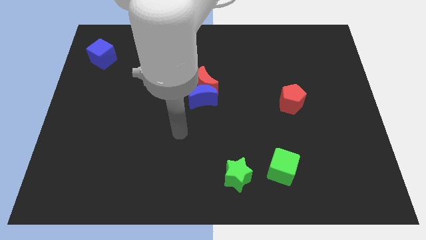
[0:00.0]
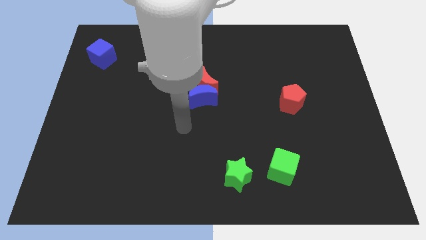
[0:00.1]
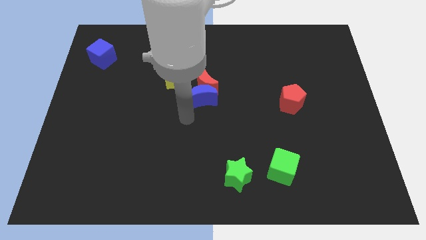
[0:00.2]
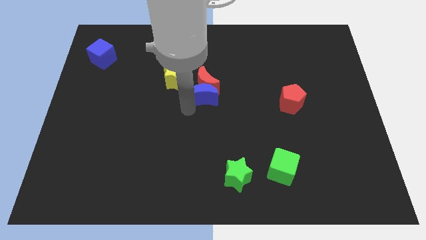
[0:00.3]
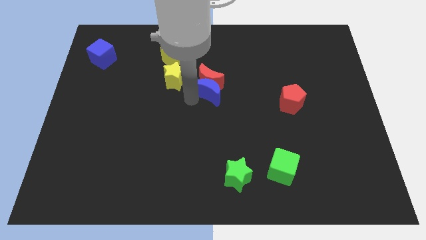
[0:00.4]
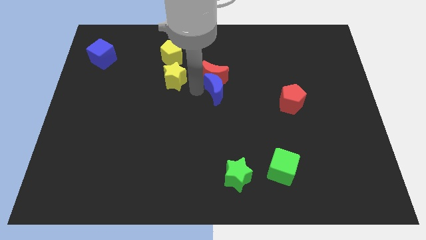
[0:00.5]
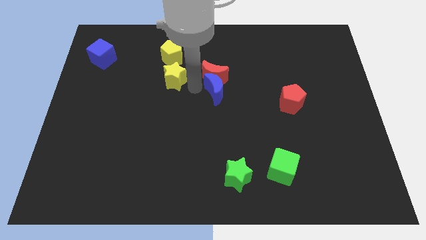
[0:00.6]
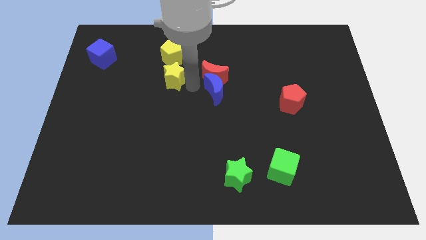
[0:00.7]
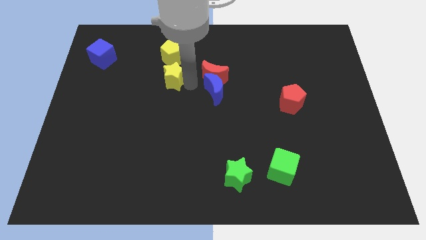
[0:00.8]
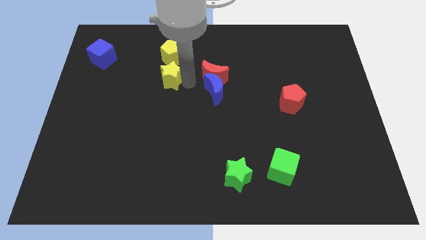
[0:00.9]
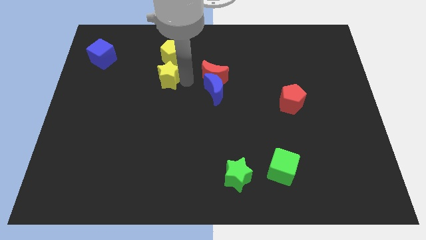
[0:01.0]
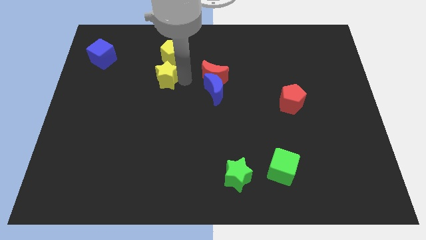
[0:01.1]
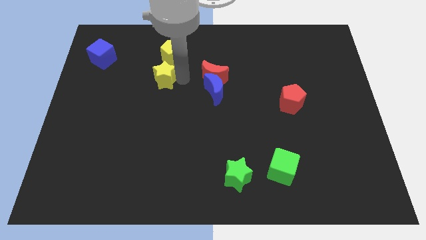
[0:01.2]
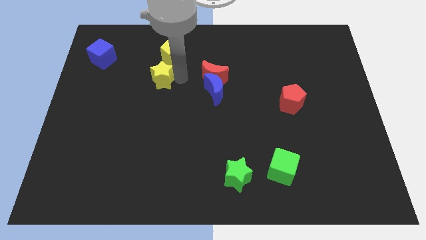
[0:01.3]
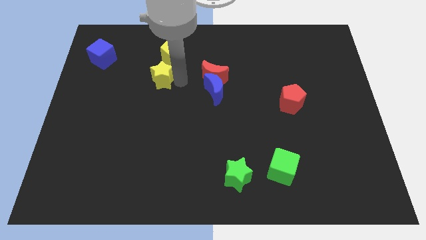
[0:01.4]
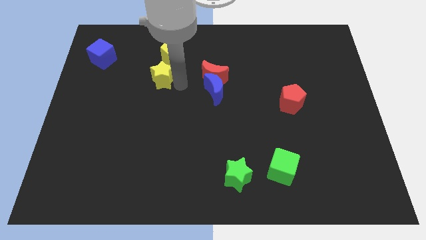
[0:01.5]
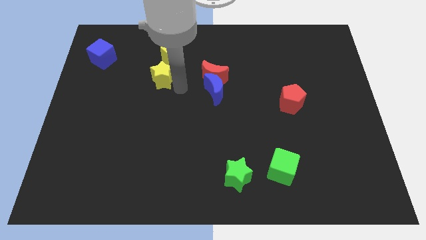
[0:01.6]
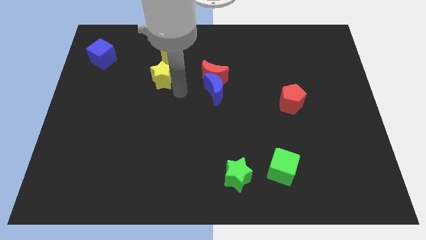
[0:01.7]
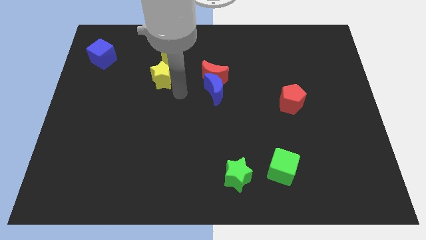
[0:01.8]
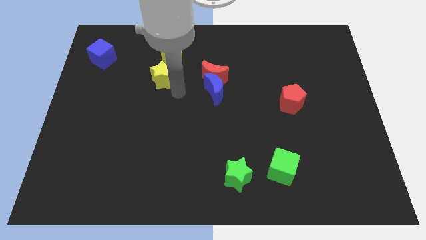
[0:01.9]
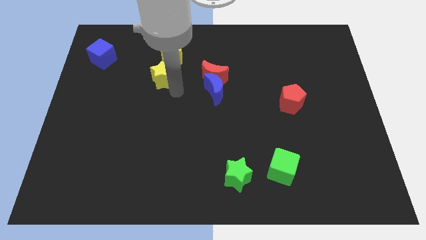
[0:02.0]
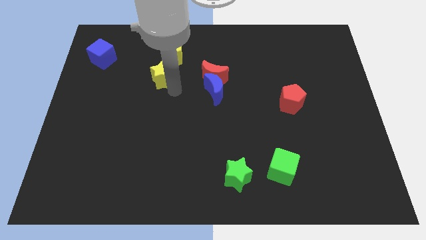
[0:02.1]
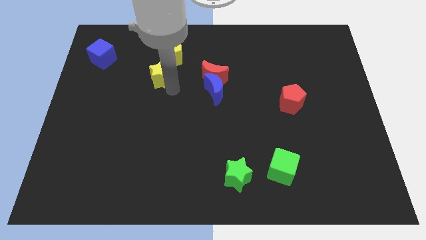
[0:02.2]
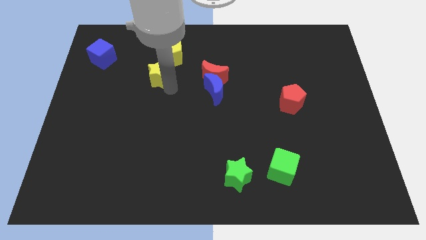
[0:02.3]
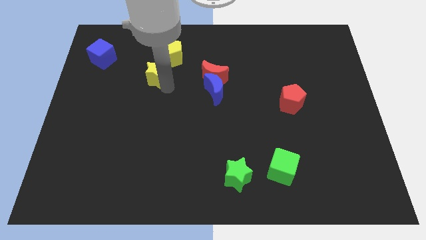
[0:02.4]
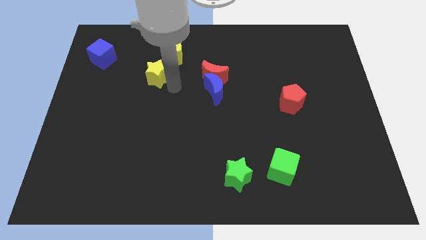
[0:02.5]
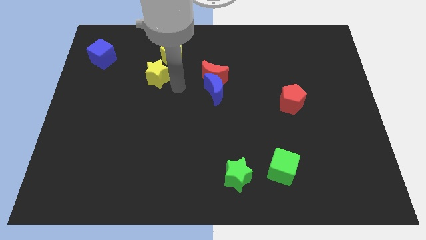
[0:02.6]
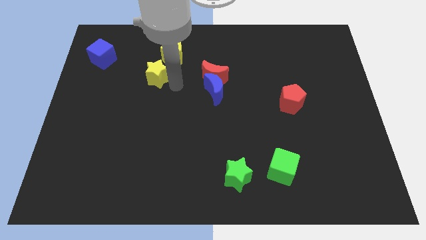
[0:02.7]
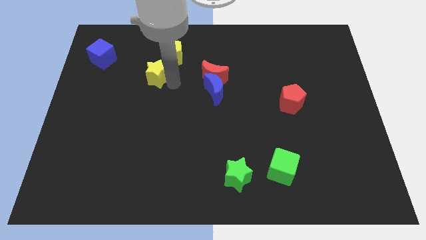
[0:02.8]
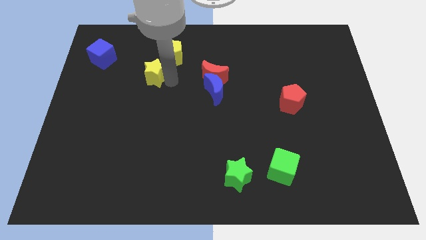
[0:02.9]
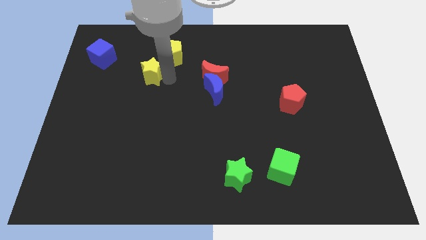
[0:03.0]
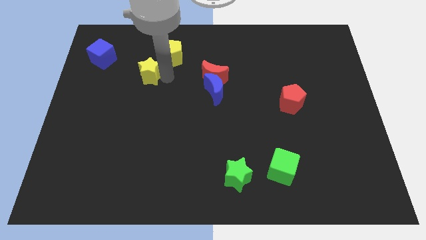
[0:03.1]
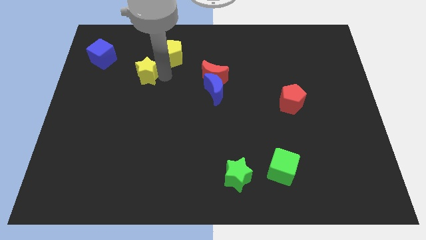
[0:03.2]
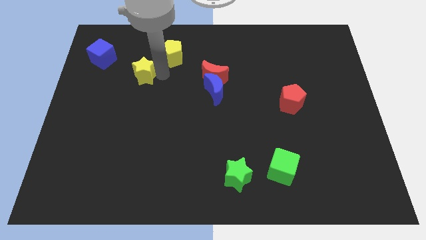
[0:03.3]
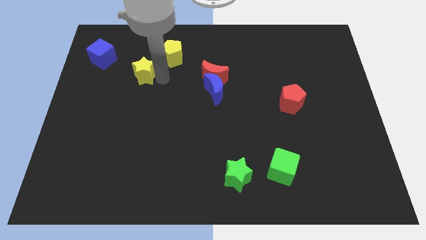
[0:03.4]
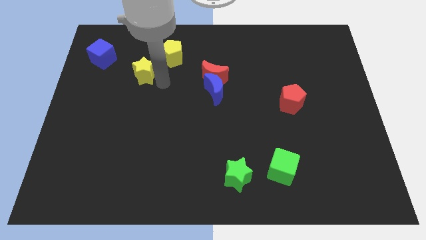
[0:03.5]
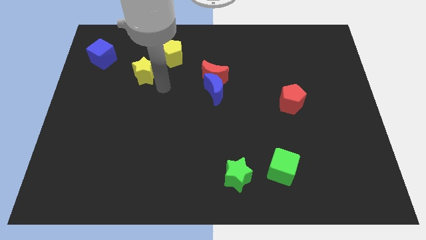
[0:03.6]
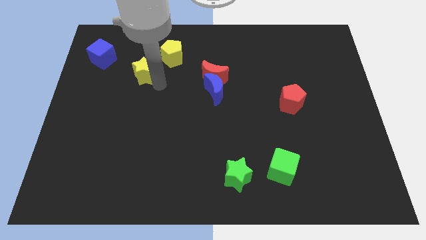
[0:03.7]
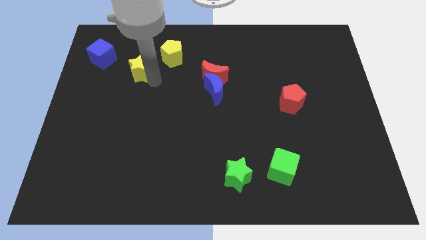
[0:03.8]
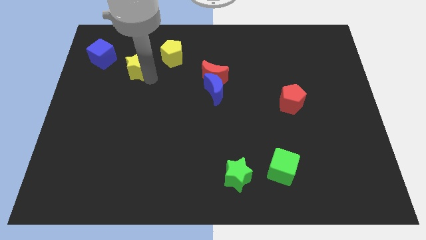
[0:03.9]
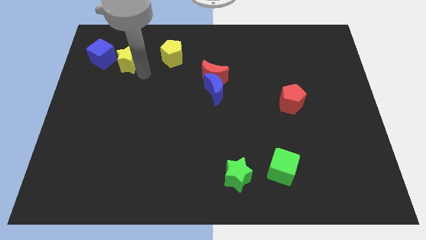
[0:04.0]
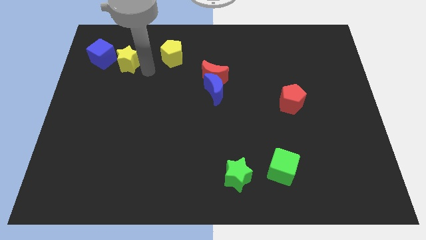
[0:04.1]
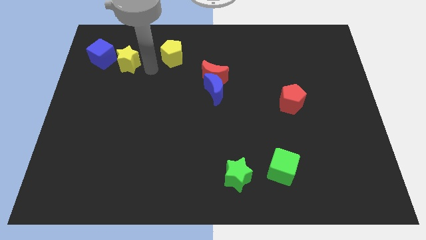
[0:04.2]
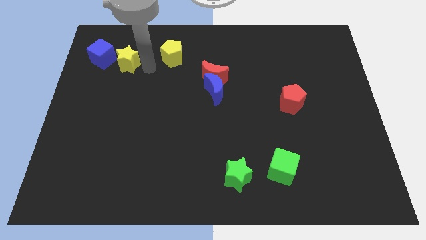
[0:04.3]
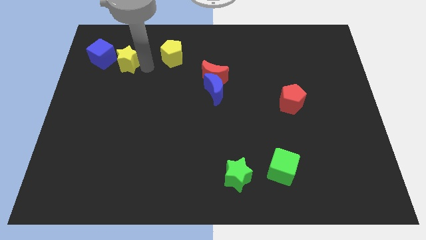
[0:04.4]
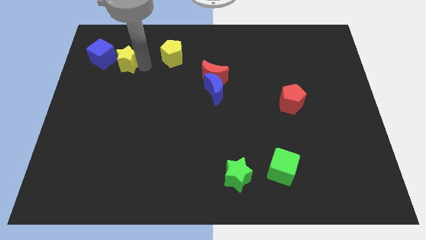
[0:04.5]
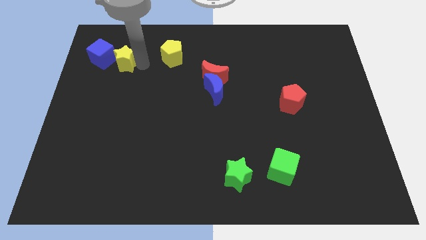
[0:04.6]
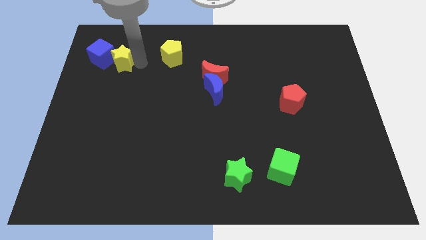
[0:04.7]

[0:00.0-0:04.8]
move the yellow star close to the blue cube

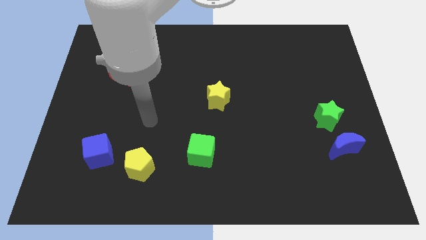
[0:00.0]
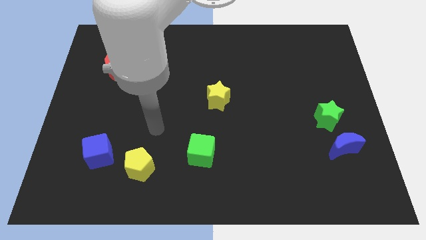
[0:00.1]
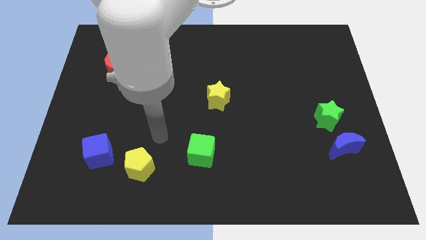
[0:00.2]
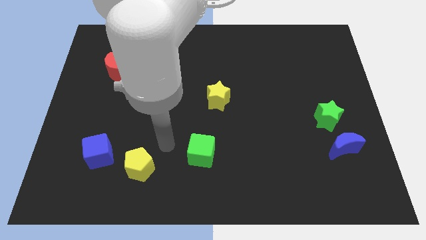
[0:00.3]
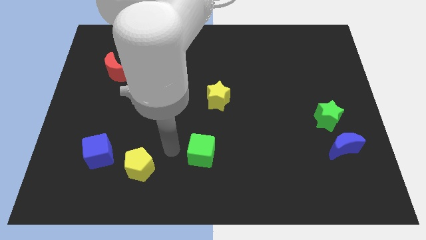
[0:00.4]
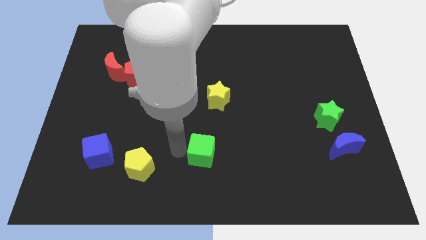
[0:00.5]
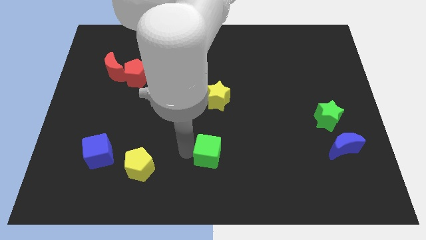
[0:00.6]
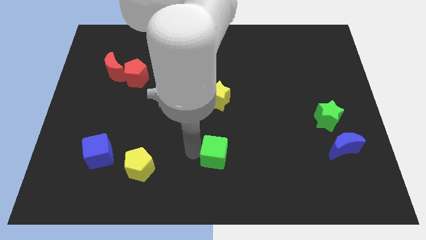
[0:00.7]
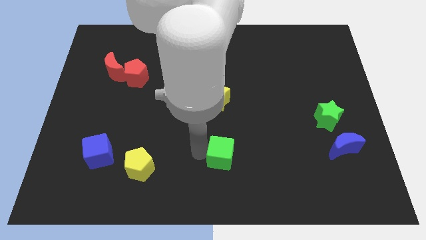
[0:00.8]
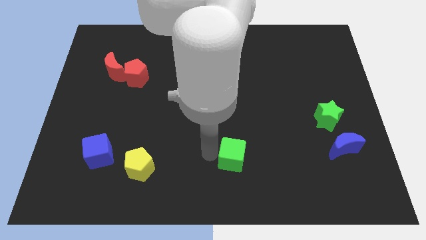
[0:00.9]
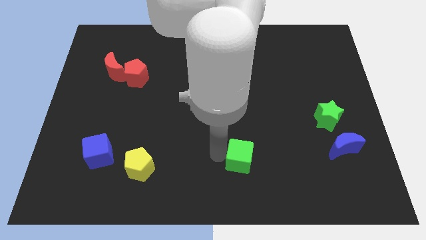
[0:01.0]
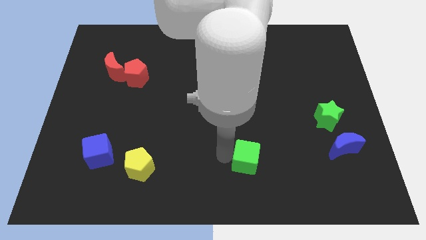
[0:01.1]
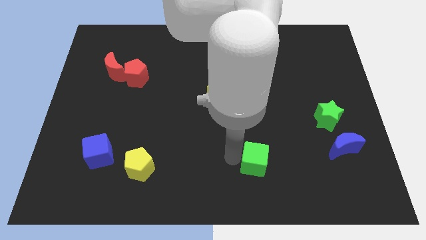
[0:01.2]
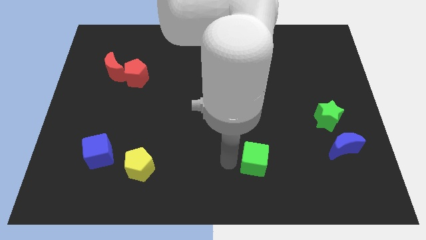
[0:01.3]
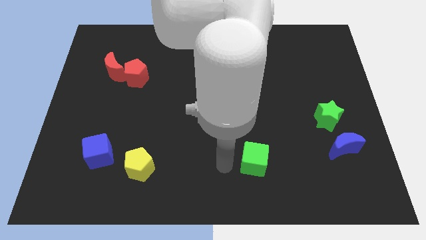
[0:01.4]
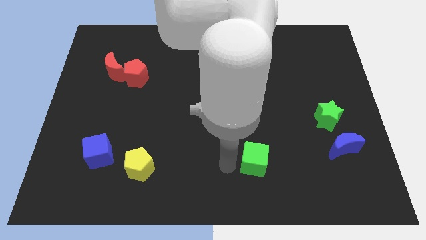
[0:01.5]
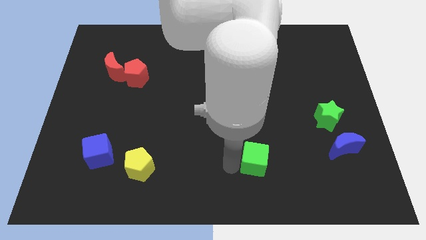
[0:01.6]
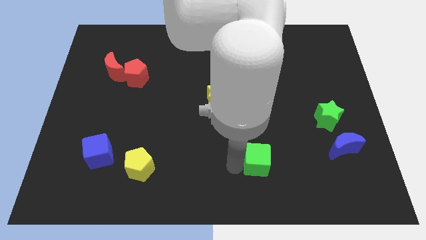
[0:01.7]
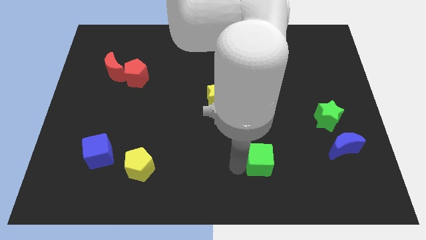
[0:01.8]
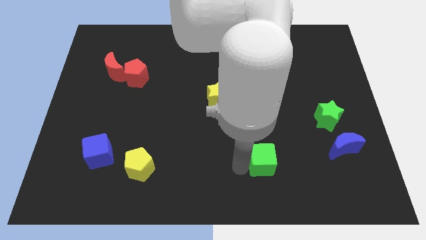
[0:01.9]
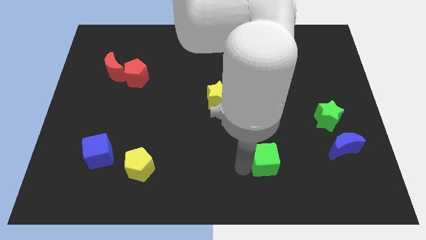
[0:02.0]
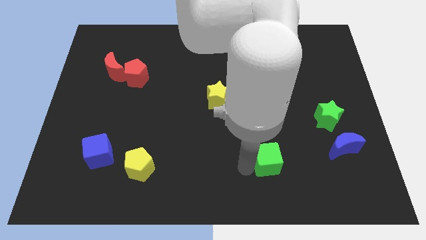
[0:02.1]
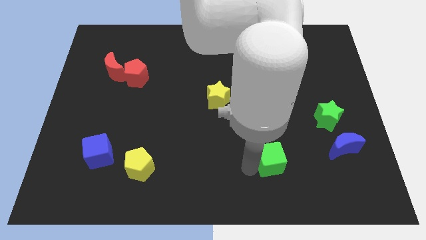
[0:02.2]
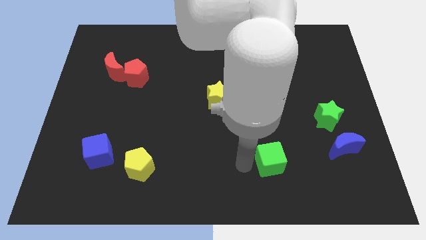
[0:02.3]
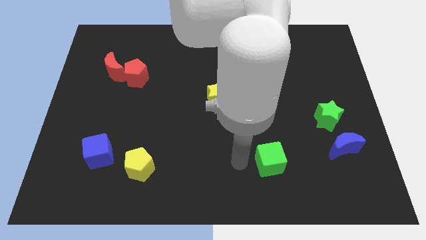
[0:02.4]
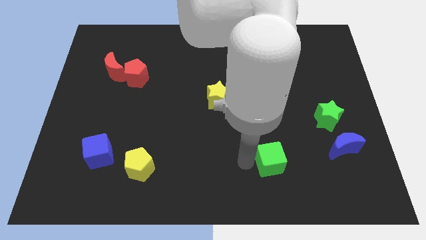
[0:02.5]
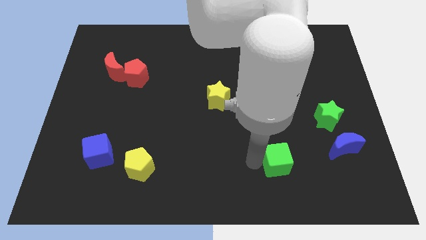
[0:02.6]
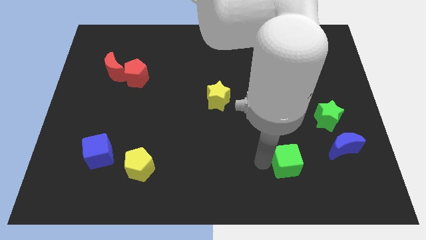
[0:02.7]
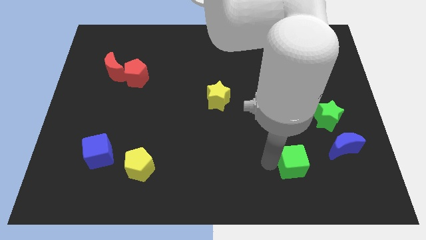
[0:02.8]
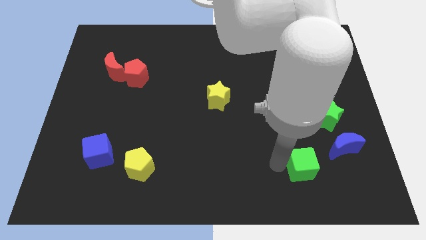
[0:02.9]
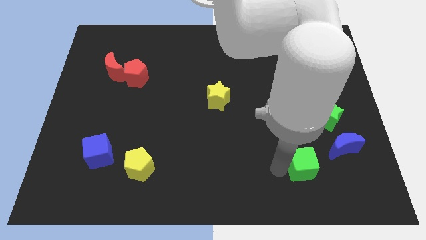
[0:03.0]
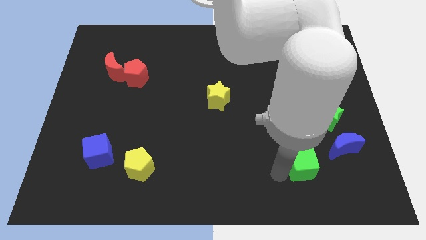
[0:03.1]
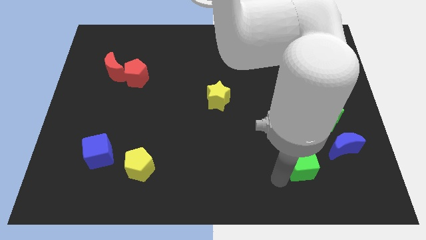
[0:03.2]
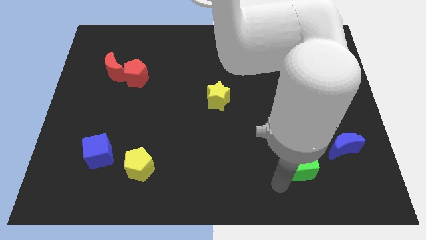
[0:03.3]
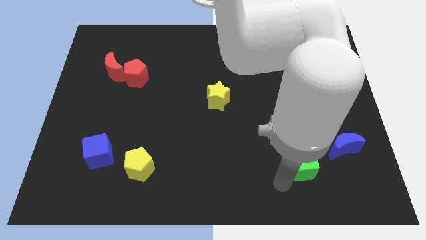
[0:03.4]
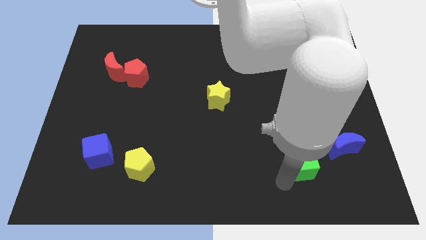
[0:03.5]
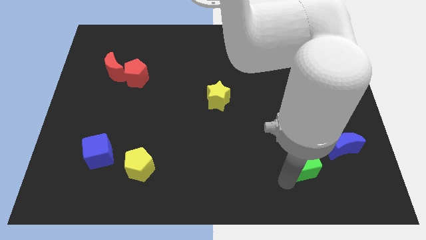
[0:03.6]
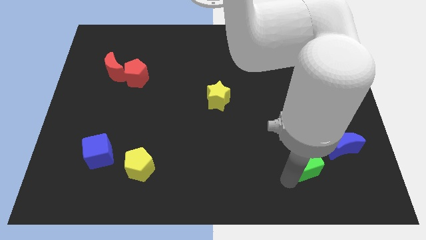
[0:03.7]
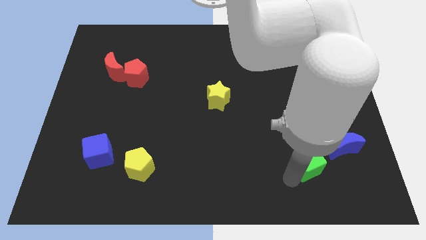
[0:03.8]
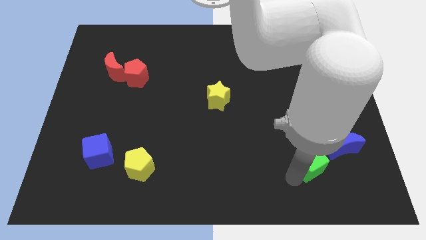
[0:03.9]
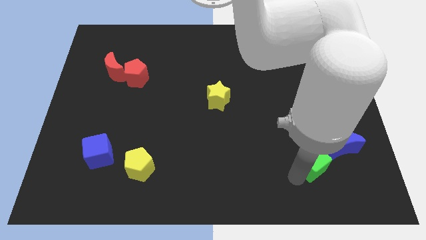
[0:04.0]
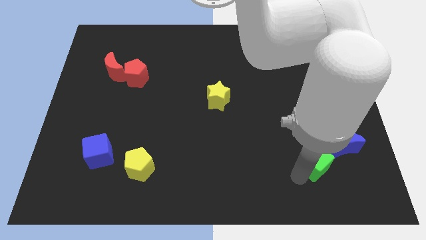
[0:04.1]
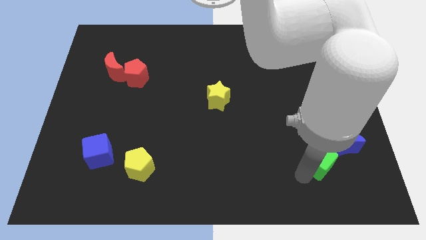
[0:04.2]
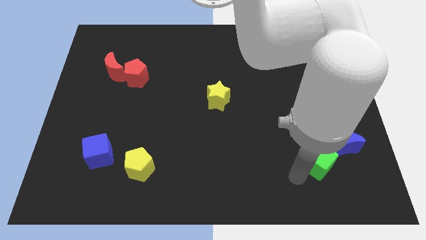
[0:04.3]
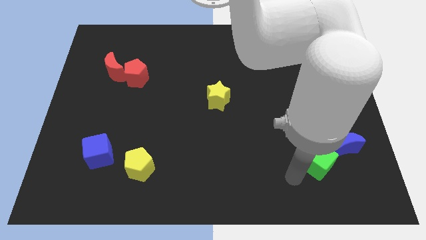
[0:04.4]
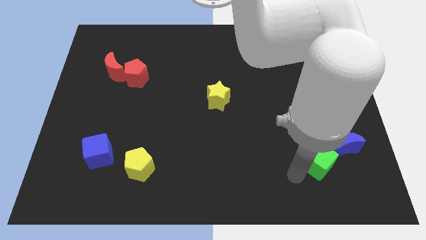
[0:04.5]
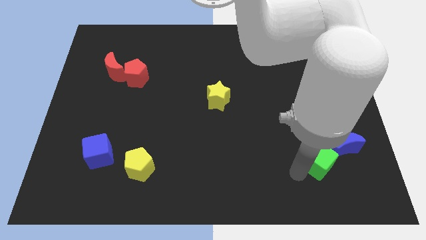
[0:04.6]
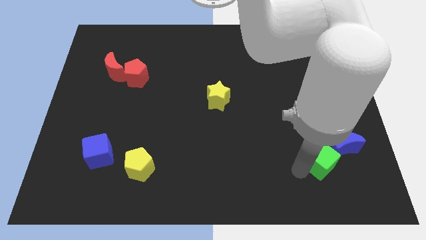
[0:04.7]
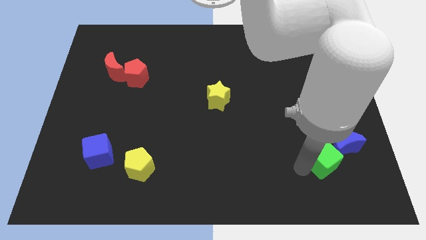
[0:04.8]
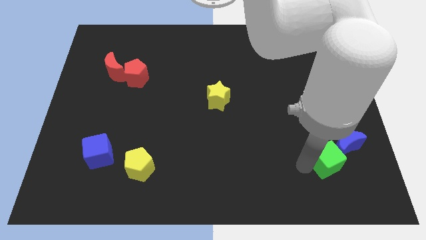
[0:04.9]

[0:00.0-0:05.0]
push the green cube towards the blue moon
